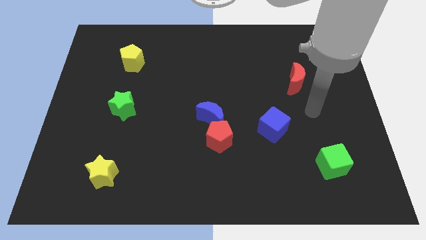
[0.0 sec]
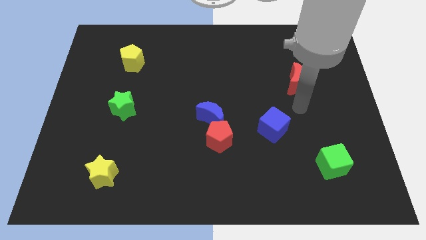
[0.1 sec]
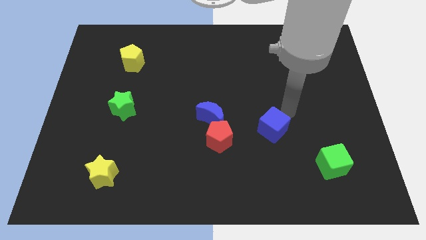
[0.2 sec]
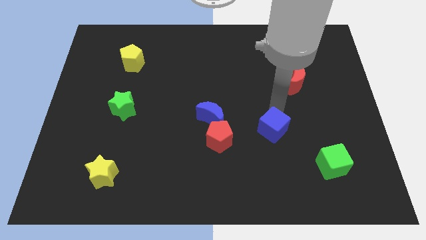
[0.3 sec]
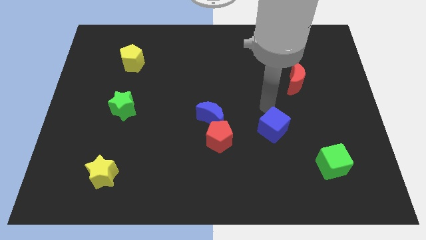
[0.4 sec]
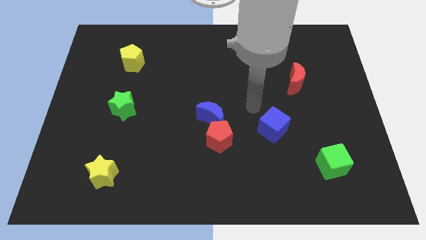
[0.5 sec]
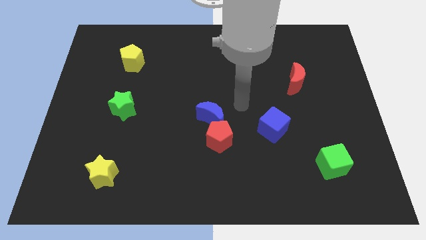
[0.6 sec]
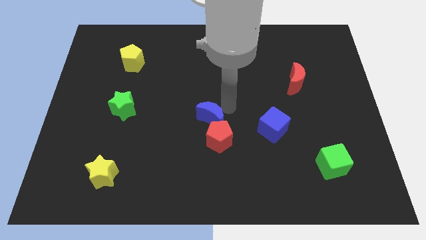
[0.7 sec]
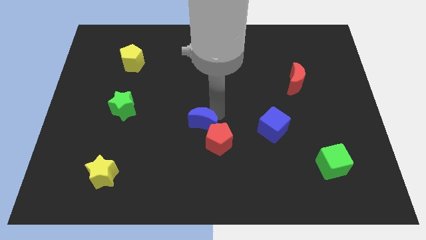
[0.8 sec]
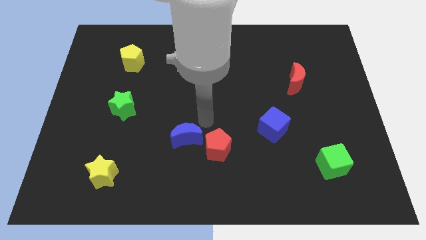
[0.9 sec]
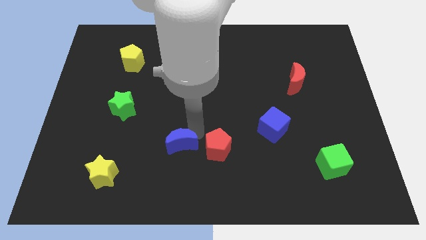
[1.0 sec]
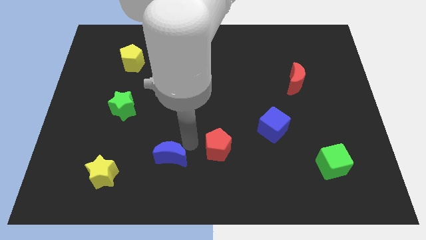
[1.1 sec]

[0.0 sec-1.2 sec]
pull the red pentagon apart from the blue moon

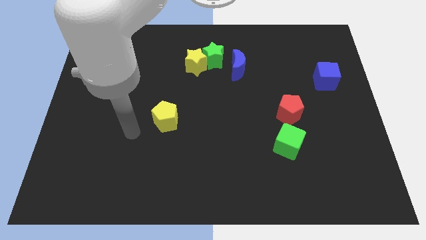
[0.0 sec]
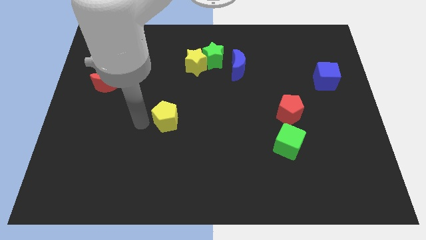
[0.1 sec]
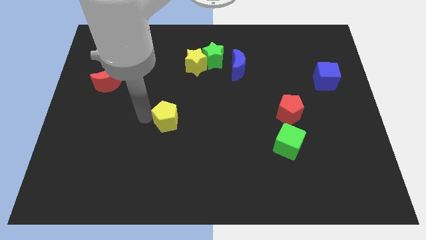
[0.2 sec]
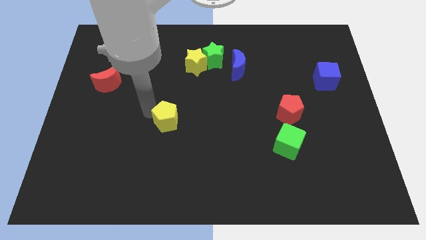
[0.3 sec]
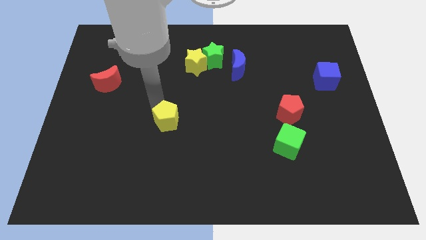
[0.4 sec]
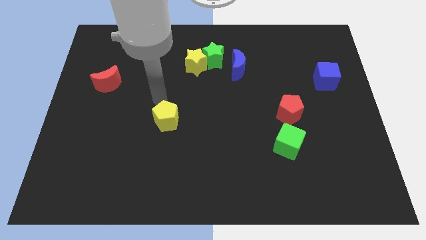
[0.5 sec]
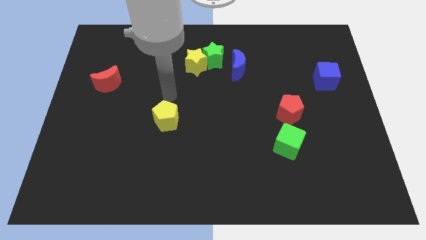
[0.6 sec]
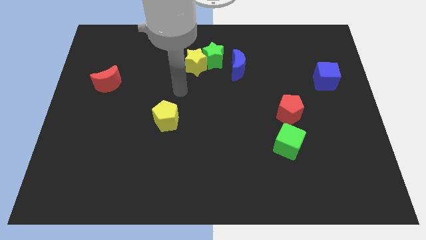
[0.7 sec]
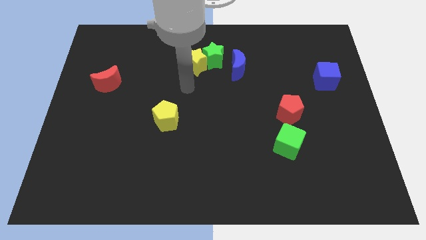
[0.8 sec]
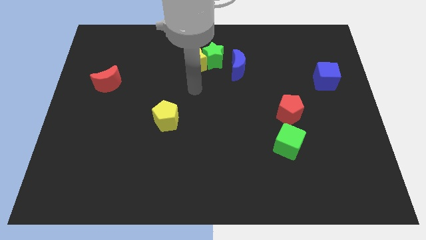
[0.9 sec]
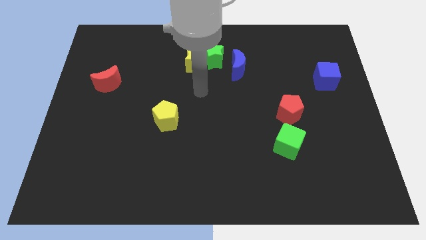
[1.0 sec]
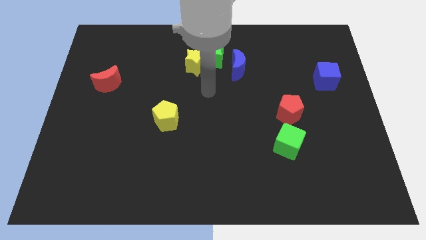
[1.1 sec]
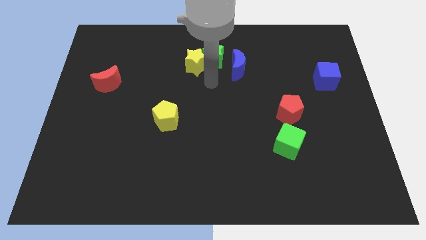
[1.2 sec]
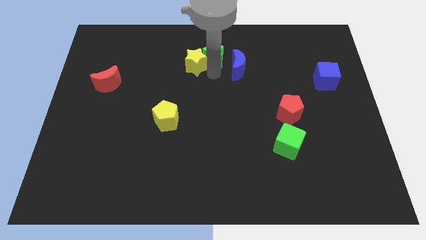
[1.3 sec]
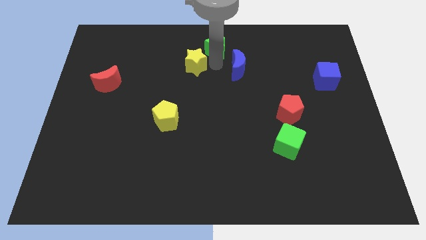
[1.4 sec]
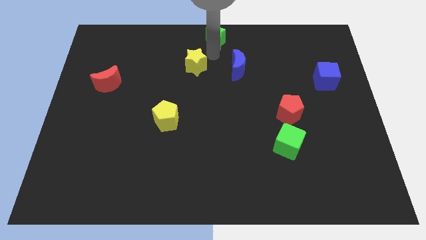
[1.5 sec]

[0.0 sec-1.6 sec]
move the yellow star away from the green star

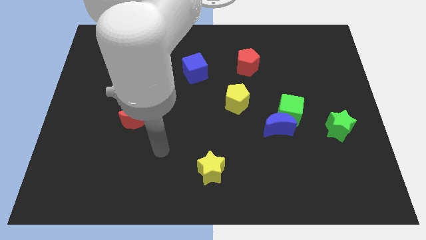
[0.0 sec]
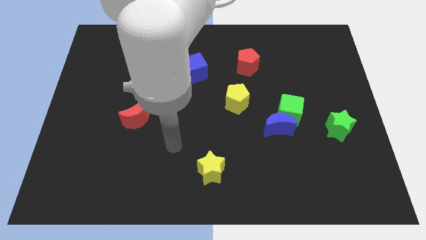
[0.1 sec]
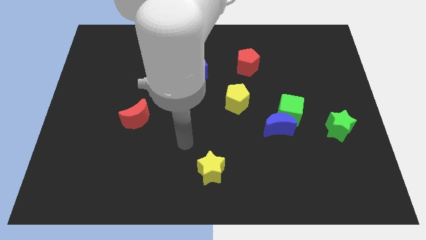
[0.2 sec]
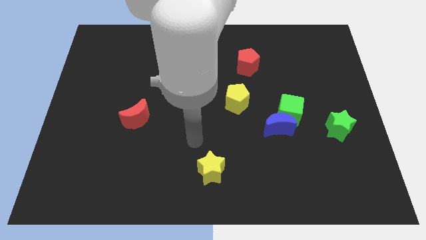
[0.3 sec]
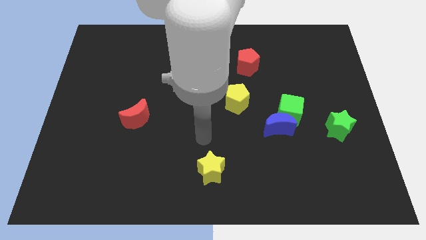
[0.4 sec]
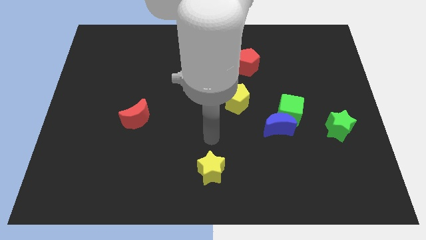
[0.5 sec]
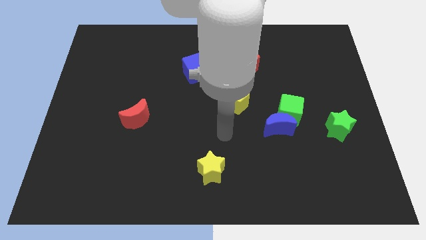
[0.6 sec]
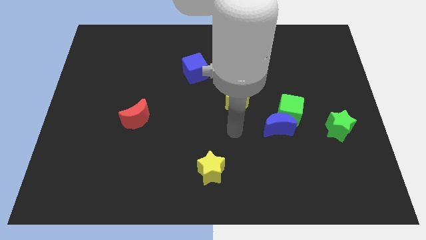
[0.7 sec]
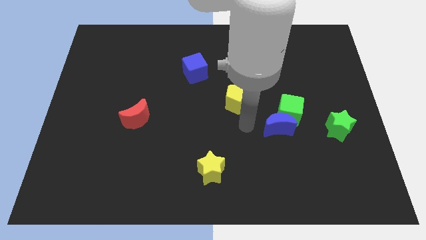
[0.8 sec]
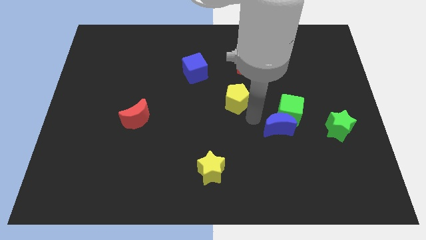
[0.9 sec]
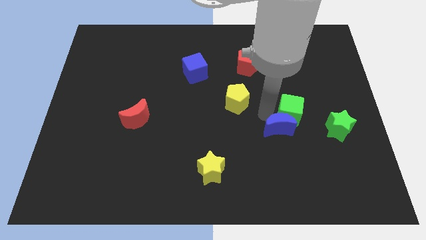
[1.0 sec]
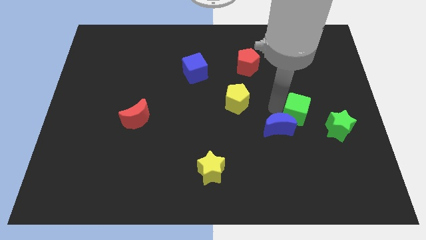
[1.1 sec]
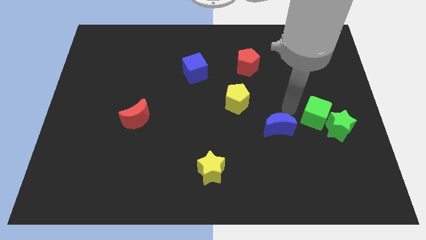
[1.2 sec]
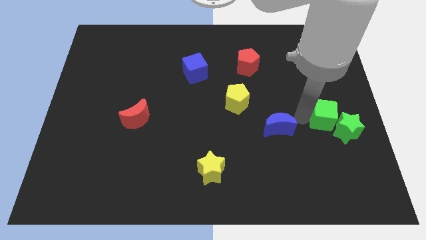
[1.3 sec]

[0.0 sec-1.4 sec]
separate the blue moon from the green cube

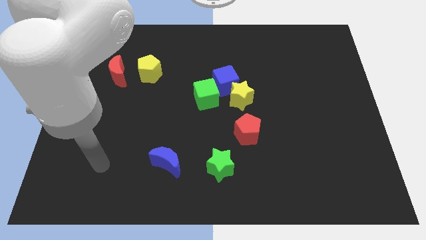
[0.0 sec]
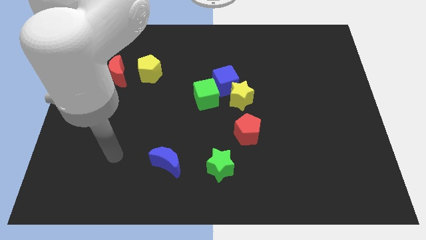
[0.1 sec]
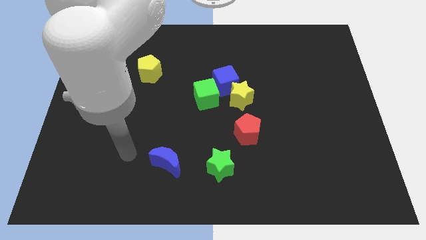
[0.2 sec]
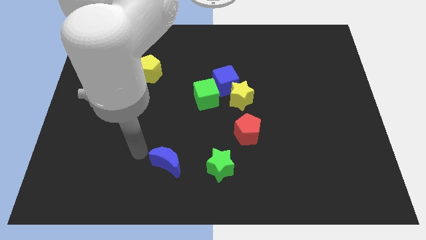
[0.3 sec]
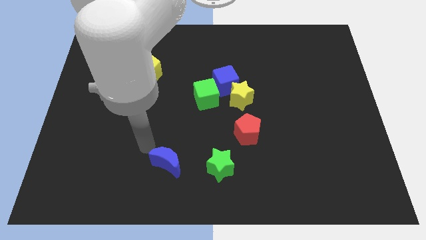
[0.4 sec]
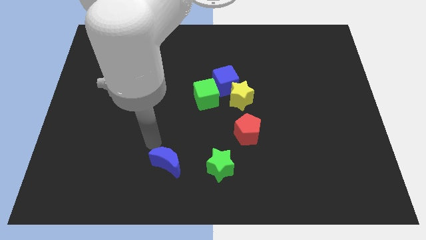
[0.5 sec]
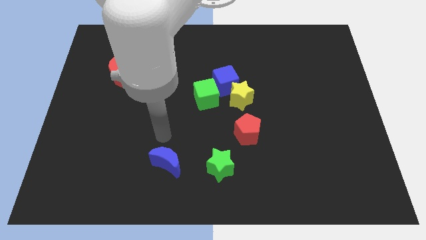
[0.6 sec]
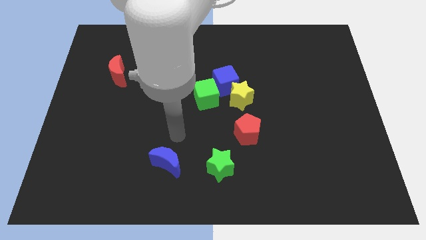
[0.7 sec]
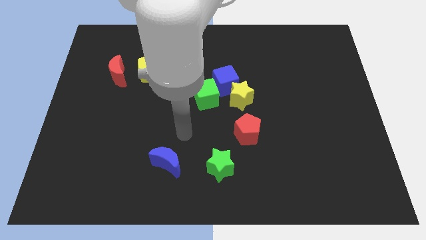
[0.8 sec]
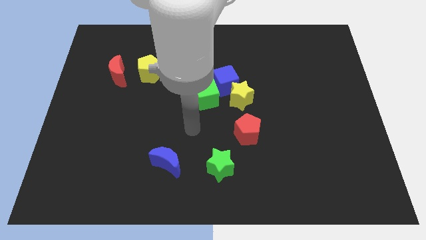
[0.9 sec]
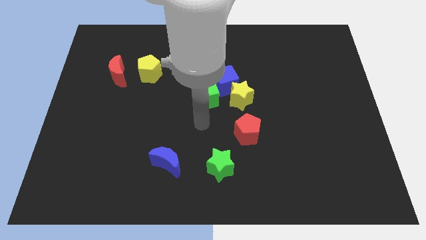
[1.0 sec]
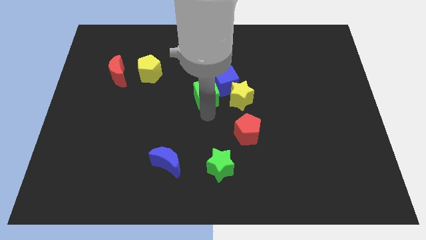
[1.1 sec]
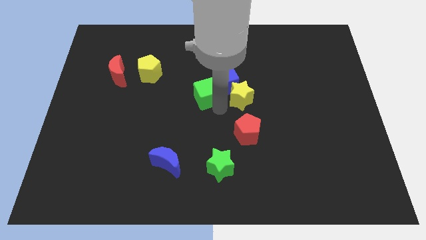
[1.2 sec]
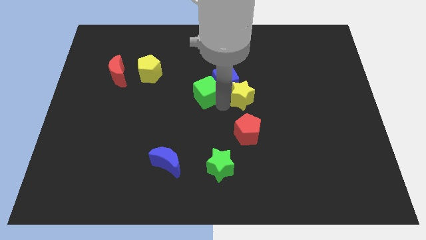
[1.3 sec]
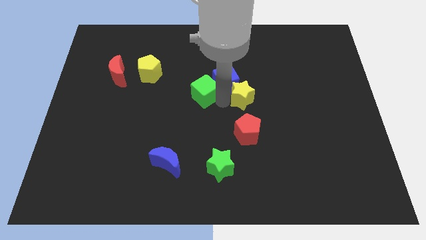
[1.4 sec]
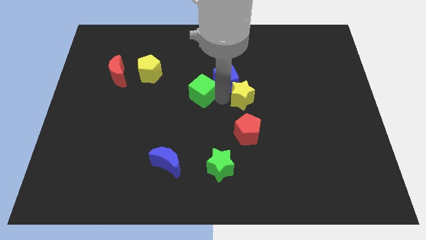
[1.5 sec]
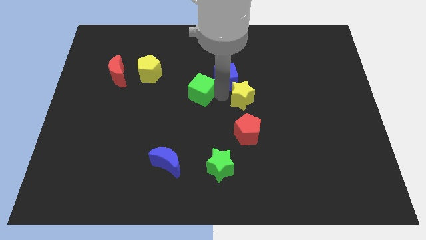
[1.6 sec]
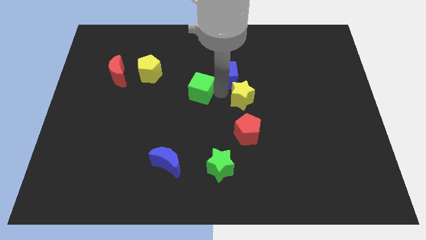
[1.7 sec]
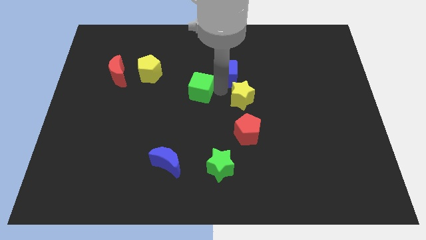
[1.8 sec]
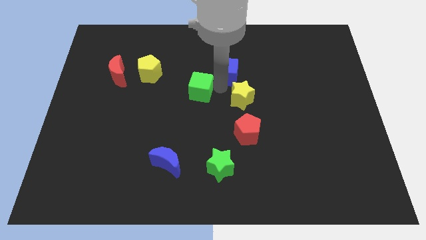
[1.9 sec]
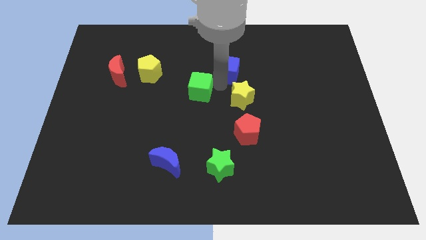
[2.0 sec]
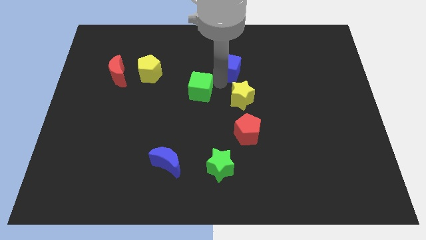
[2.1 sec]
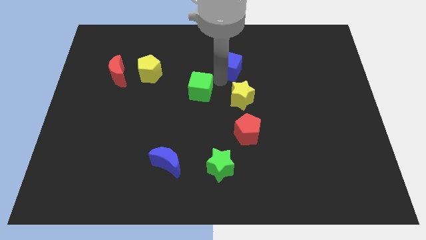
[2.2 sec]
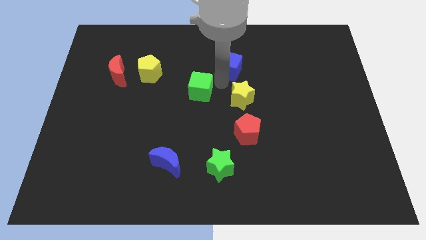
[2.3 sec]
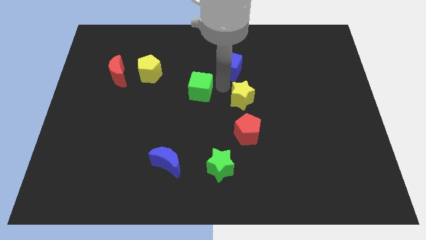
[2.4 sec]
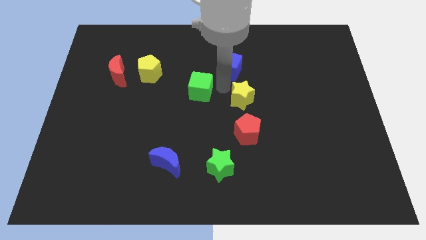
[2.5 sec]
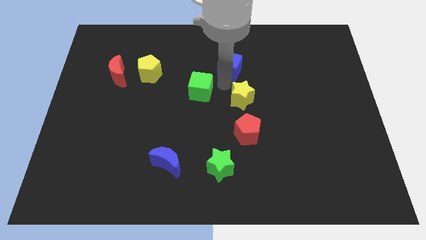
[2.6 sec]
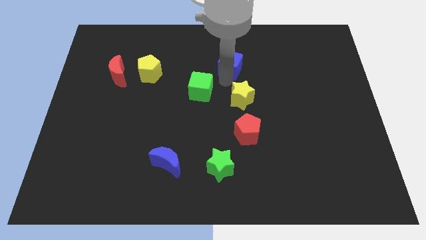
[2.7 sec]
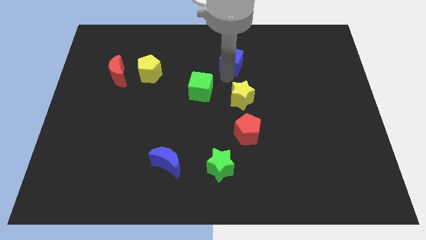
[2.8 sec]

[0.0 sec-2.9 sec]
pull the blue cube apart from the yellow star and green cube

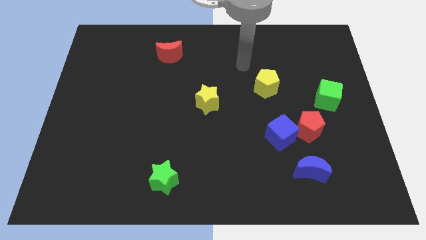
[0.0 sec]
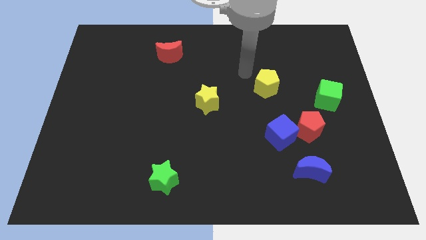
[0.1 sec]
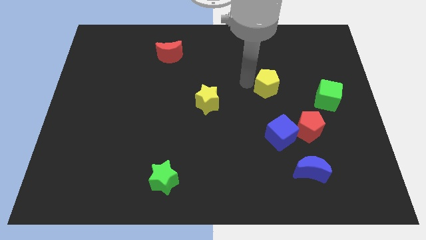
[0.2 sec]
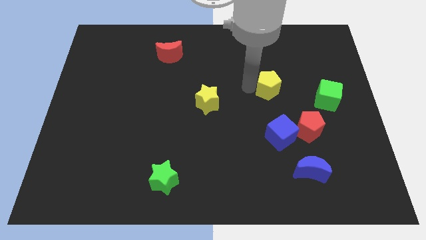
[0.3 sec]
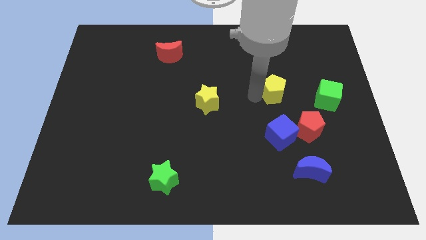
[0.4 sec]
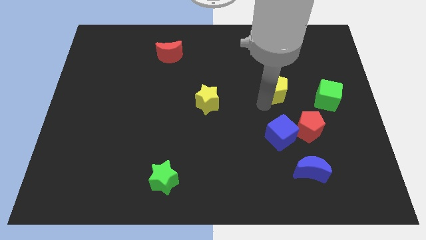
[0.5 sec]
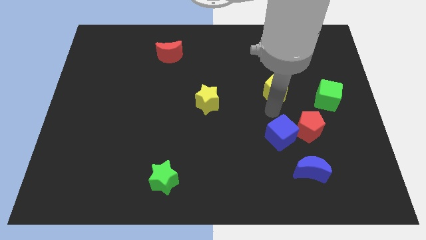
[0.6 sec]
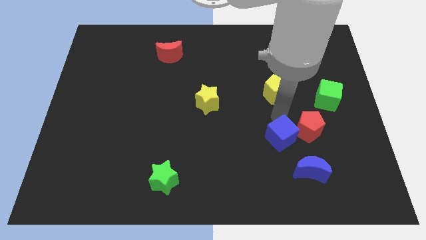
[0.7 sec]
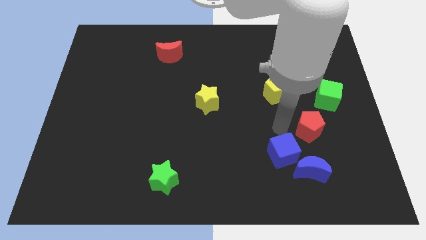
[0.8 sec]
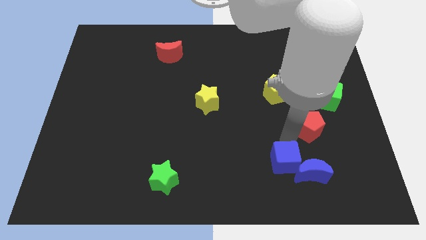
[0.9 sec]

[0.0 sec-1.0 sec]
move the red pentagon away from the blue cube

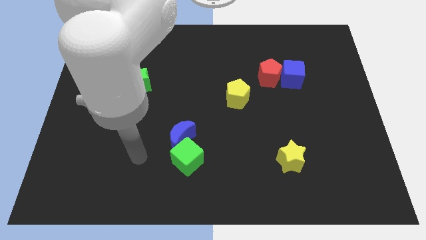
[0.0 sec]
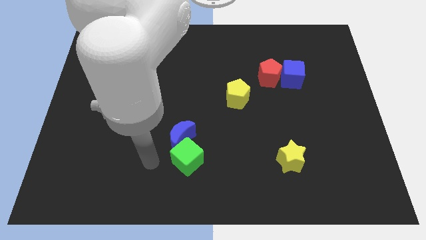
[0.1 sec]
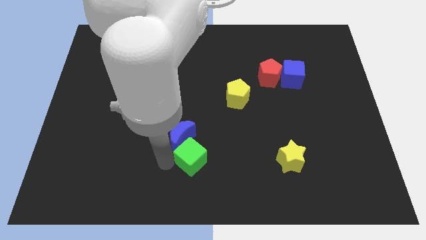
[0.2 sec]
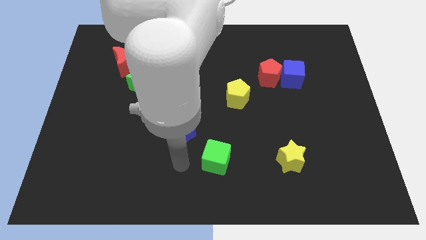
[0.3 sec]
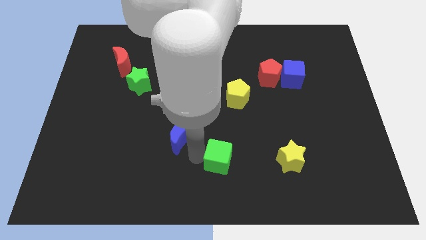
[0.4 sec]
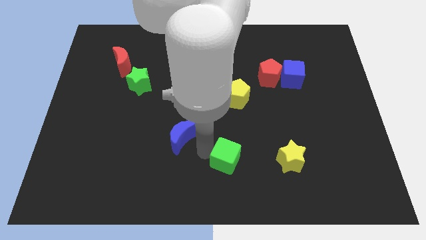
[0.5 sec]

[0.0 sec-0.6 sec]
move the blue moon away from the green cube

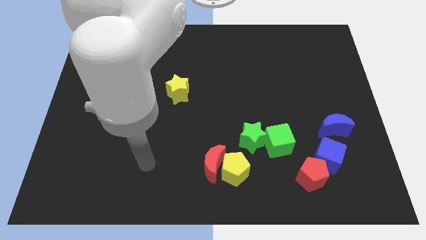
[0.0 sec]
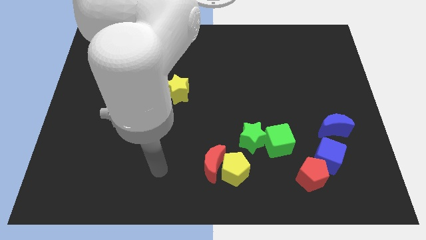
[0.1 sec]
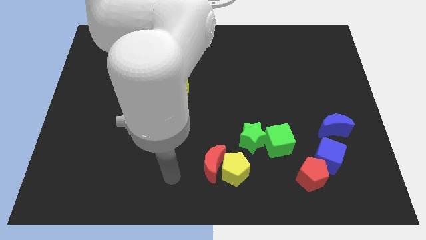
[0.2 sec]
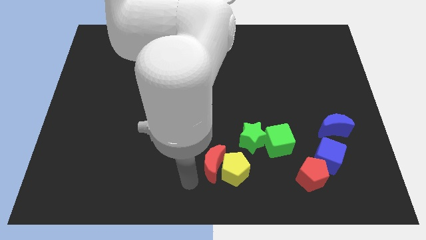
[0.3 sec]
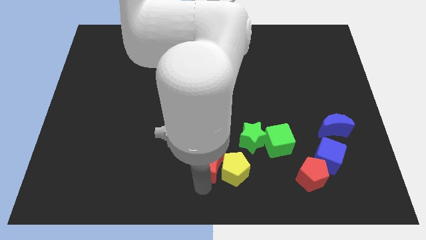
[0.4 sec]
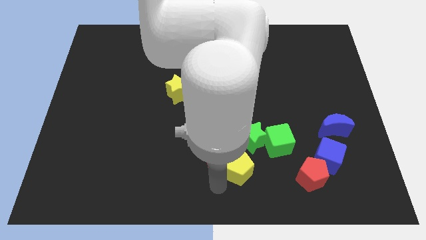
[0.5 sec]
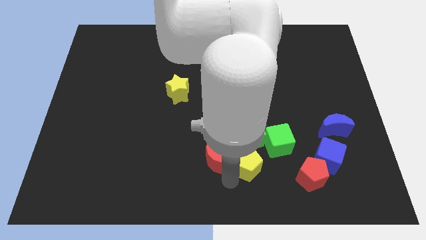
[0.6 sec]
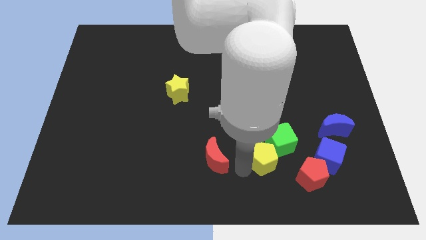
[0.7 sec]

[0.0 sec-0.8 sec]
move the red moon away from the yellow pentagon
